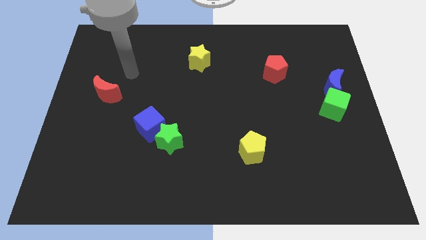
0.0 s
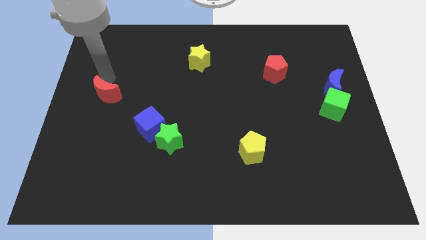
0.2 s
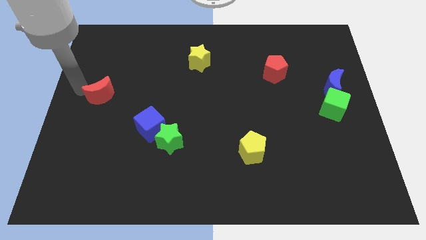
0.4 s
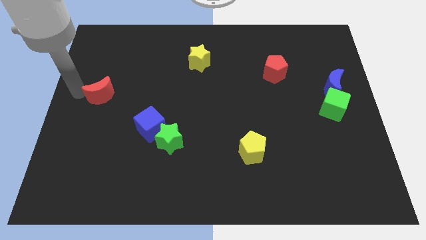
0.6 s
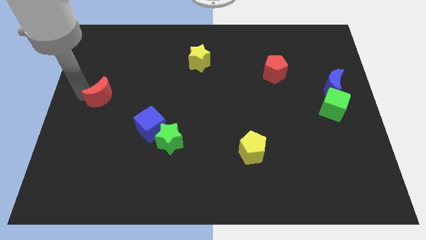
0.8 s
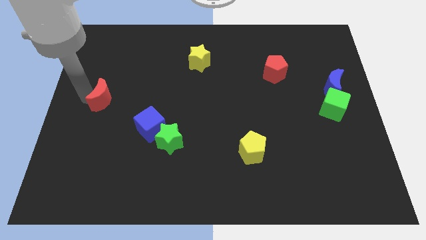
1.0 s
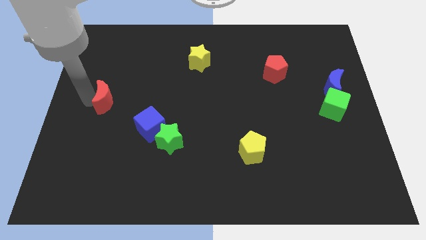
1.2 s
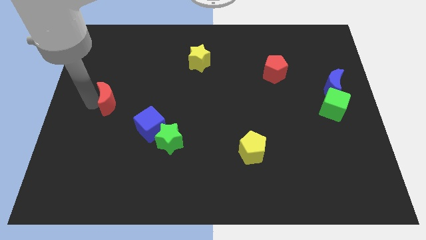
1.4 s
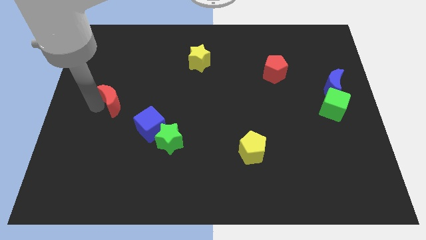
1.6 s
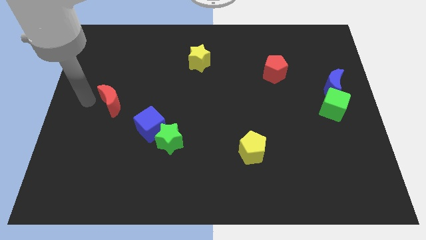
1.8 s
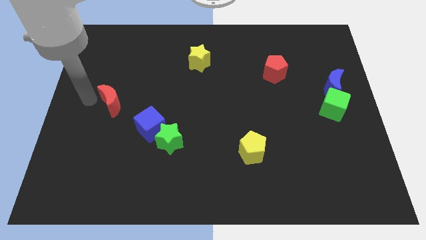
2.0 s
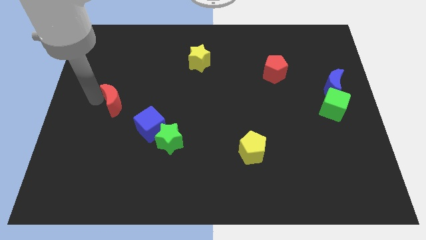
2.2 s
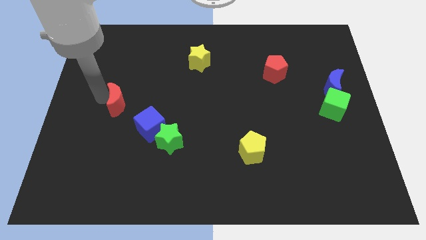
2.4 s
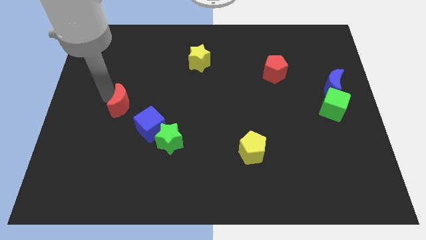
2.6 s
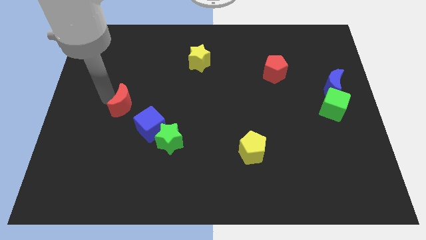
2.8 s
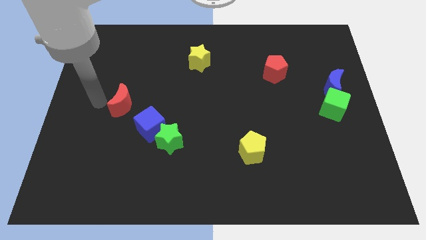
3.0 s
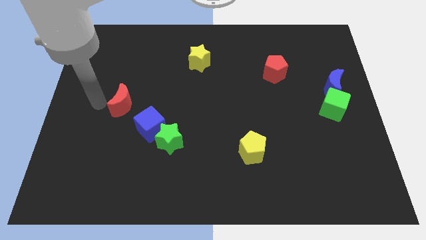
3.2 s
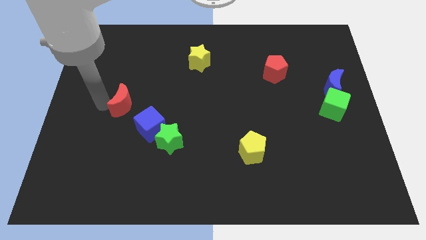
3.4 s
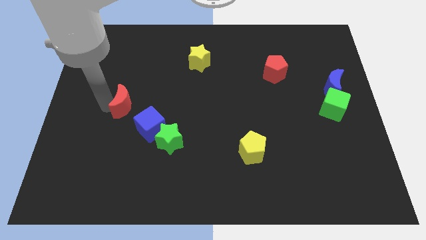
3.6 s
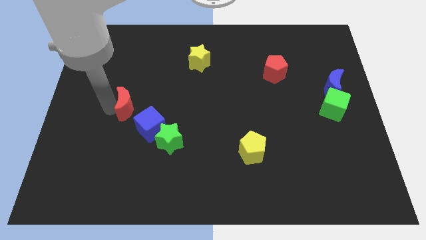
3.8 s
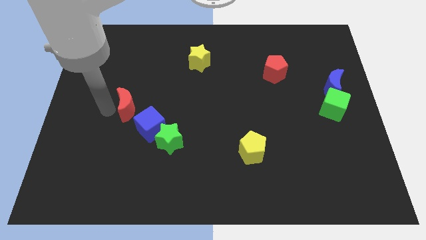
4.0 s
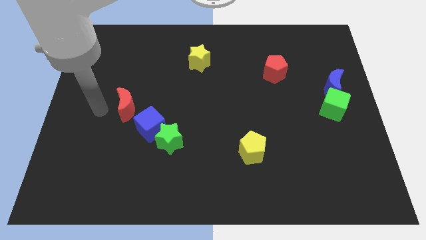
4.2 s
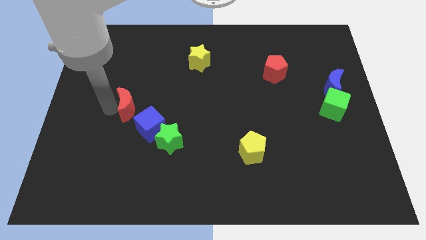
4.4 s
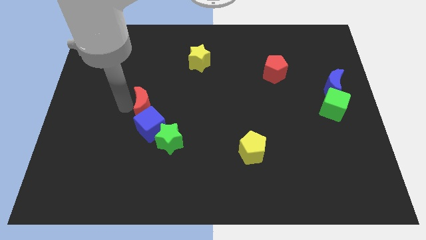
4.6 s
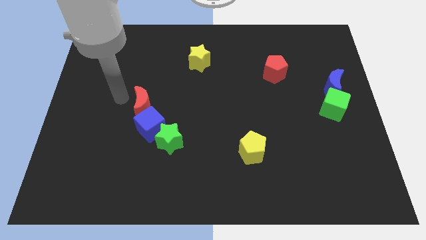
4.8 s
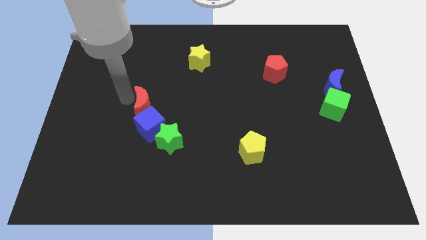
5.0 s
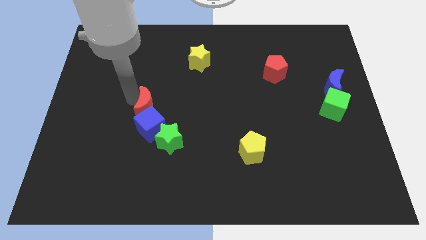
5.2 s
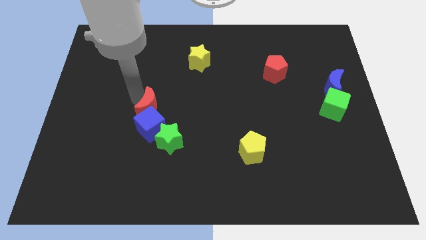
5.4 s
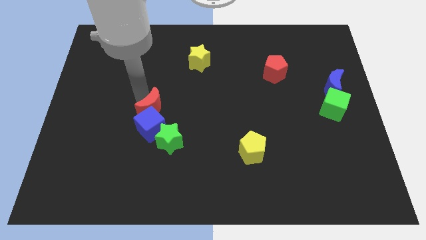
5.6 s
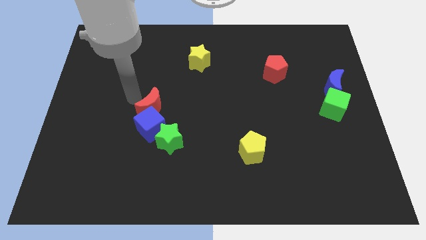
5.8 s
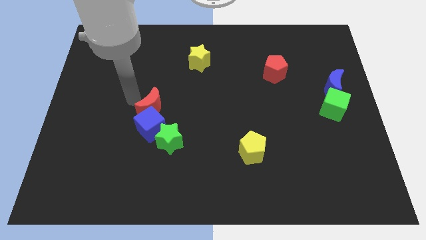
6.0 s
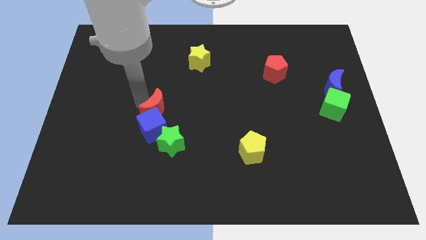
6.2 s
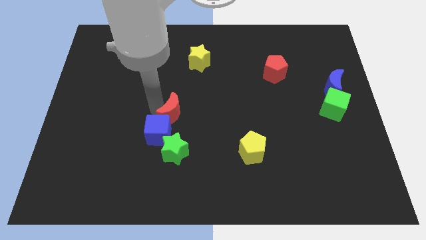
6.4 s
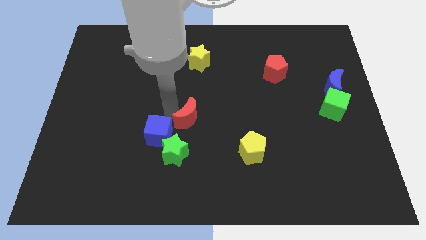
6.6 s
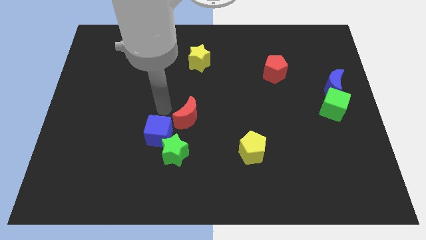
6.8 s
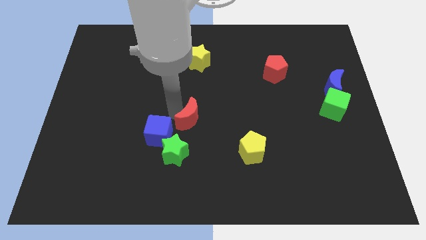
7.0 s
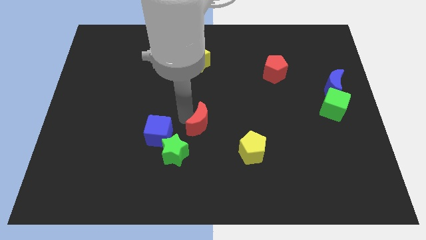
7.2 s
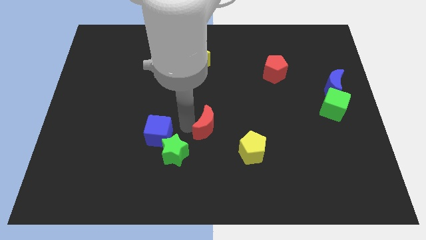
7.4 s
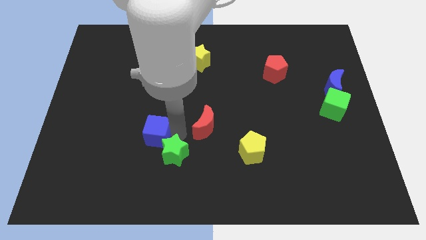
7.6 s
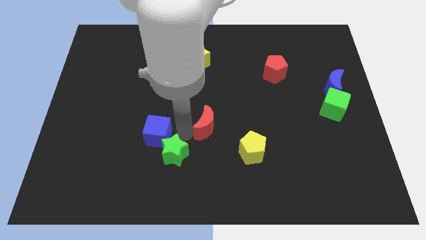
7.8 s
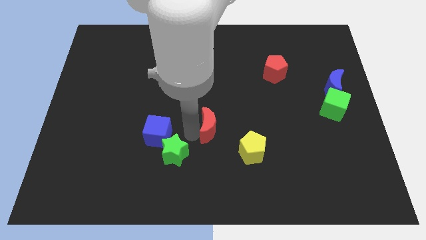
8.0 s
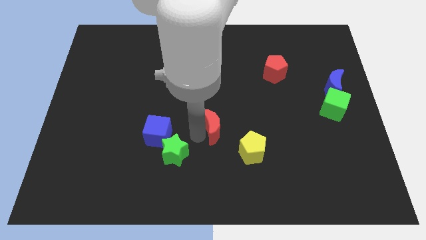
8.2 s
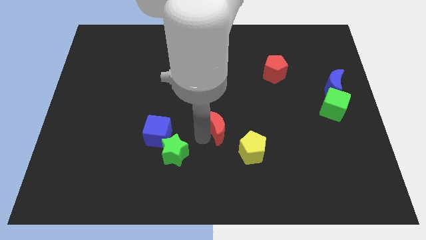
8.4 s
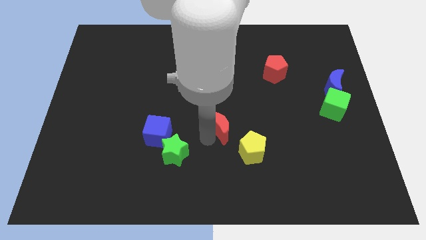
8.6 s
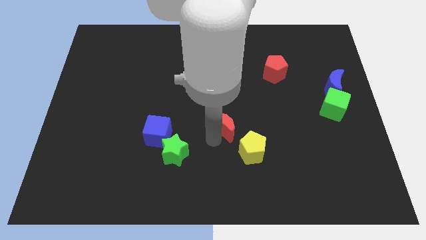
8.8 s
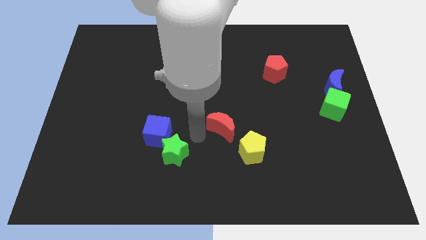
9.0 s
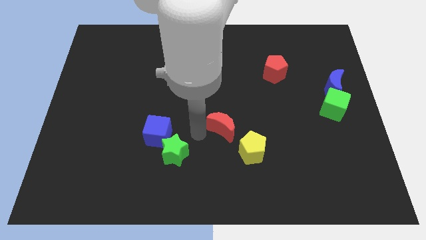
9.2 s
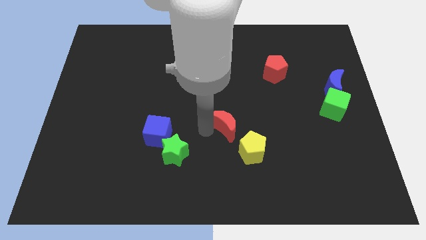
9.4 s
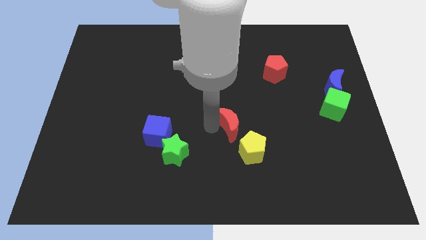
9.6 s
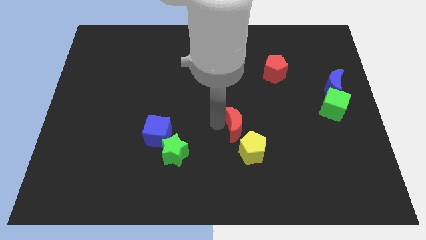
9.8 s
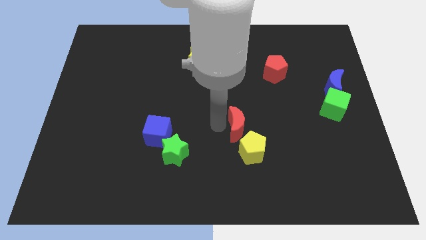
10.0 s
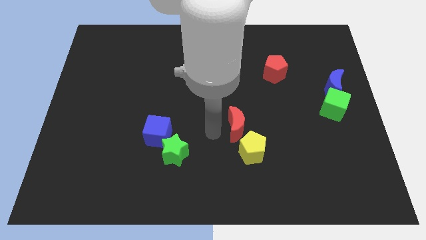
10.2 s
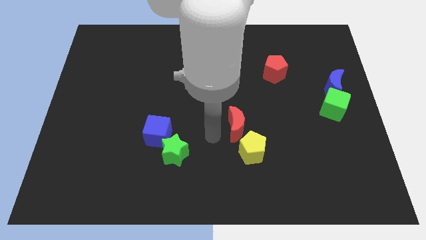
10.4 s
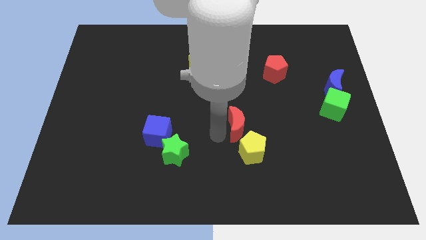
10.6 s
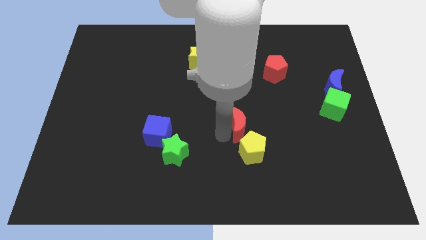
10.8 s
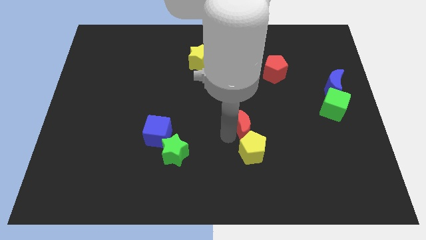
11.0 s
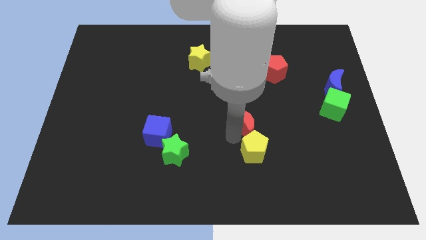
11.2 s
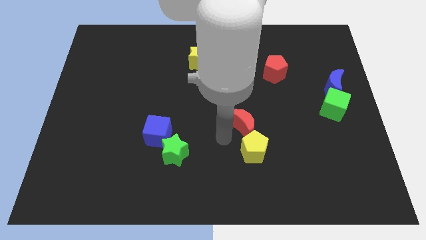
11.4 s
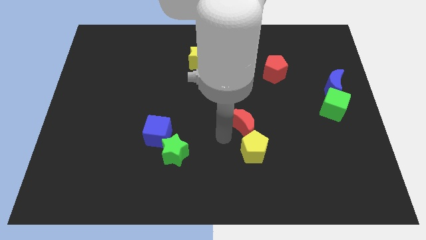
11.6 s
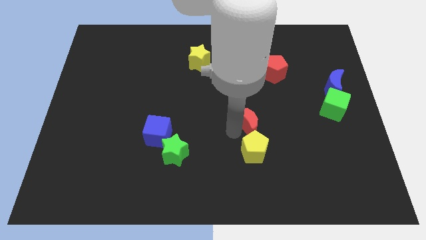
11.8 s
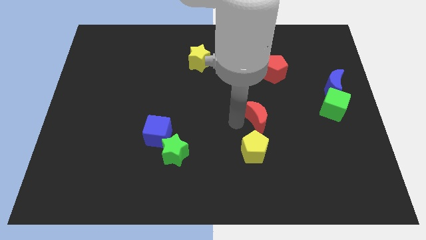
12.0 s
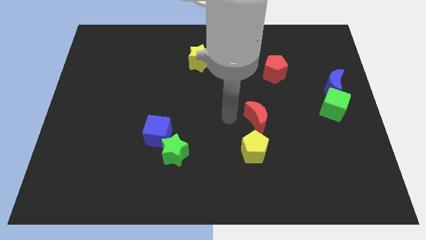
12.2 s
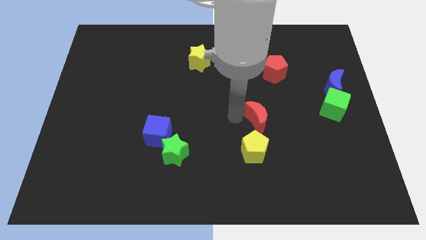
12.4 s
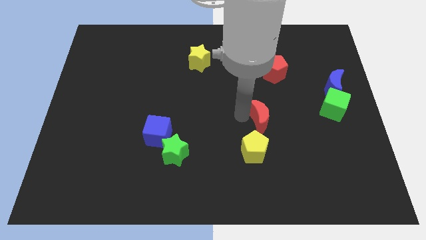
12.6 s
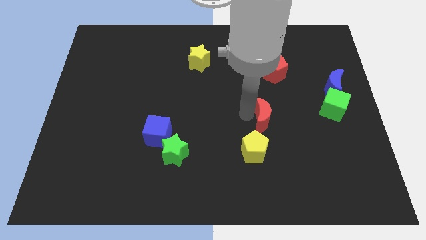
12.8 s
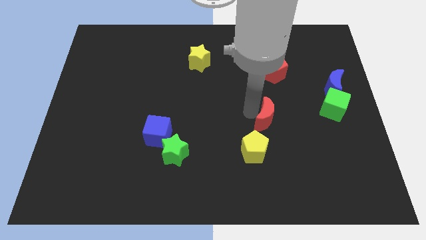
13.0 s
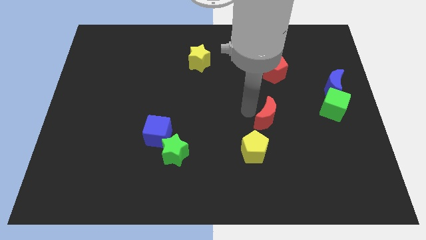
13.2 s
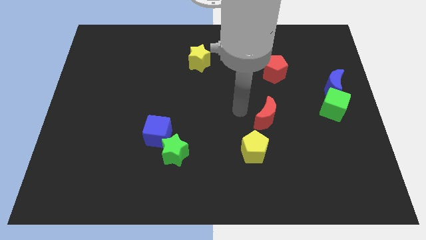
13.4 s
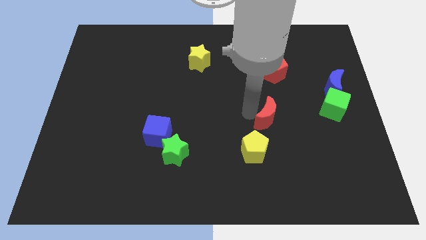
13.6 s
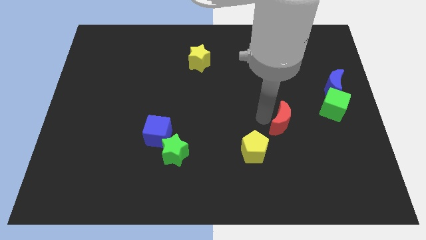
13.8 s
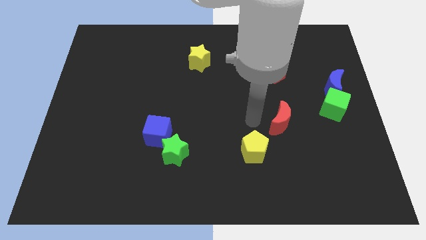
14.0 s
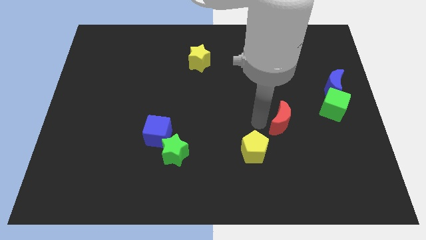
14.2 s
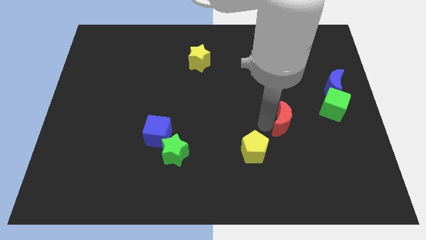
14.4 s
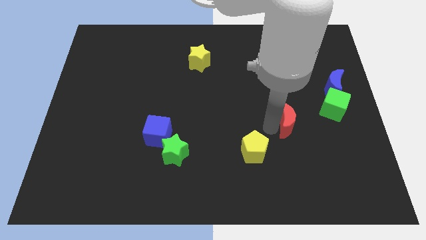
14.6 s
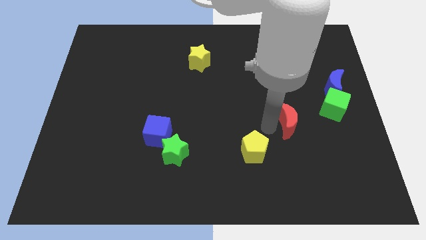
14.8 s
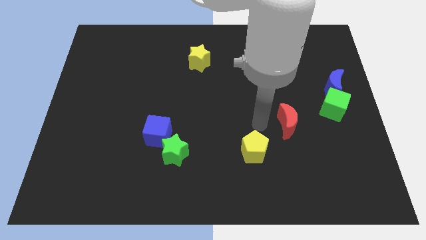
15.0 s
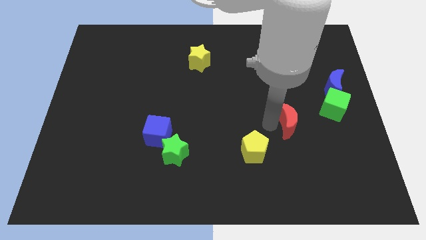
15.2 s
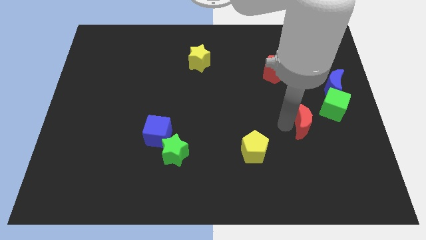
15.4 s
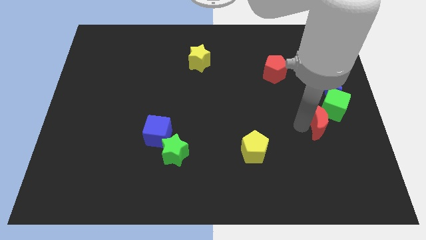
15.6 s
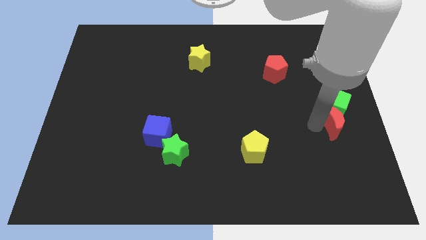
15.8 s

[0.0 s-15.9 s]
push the red moon to the center right
